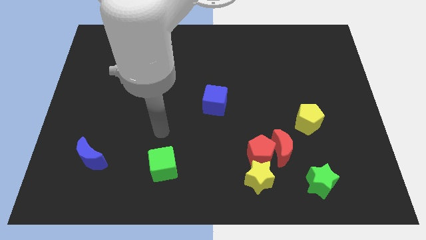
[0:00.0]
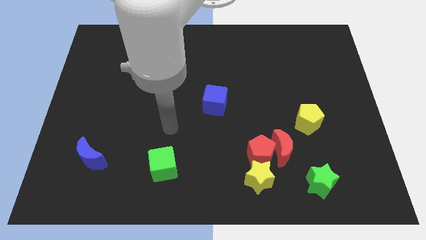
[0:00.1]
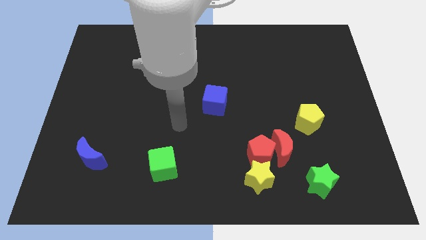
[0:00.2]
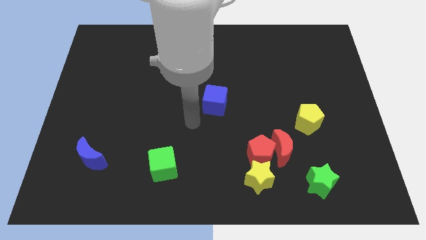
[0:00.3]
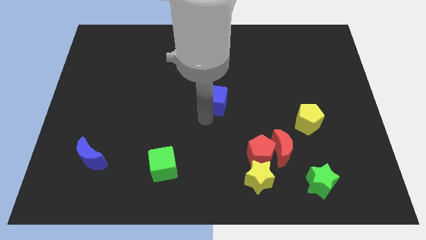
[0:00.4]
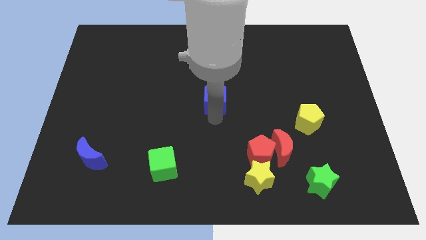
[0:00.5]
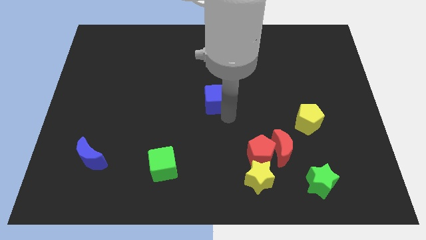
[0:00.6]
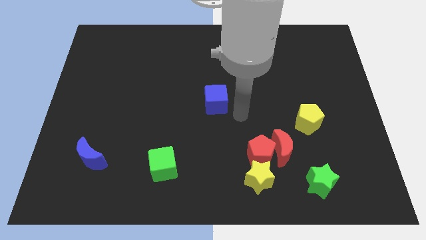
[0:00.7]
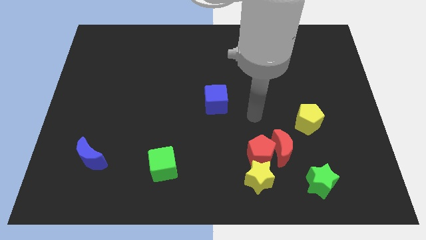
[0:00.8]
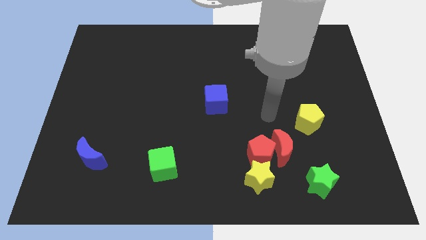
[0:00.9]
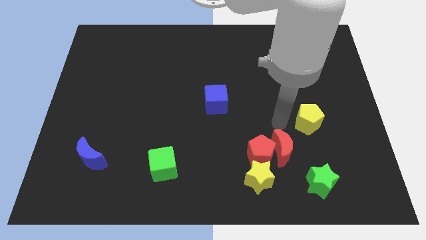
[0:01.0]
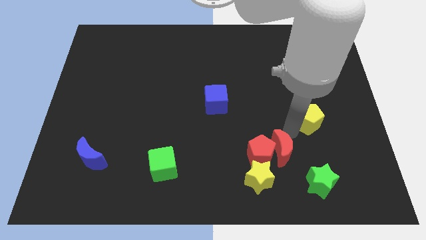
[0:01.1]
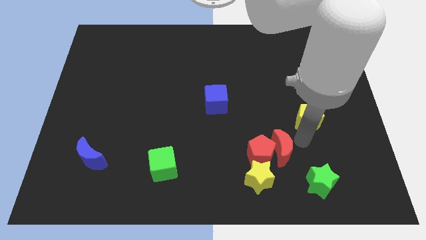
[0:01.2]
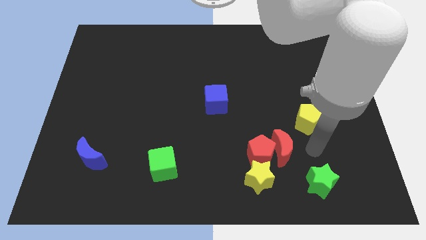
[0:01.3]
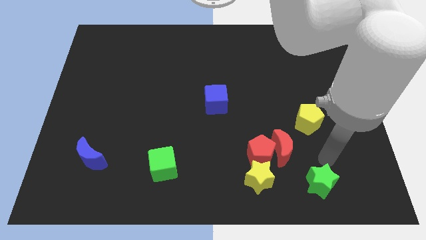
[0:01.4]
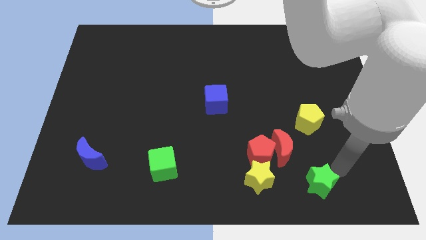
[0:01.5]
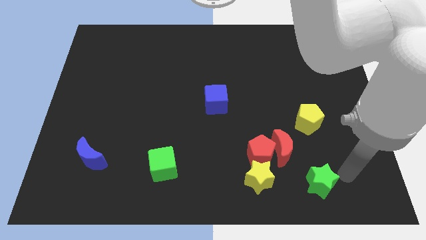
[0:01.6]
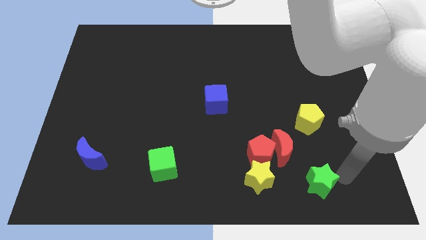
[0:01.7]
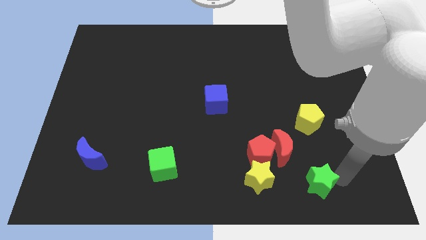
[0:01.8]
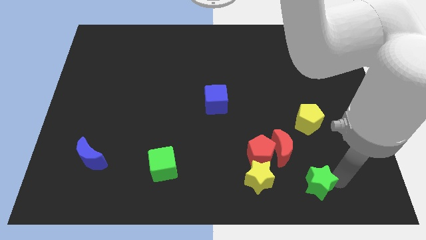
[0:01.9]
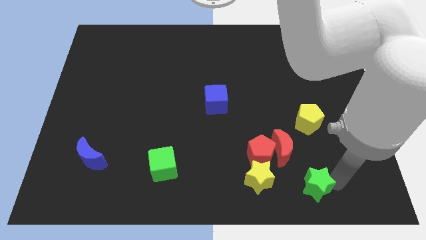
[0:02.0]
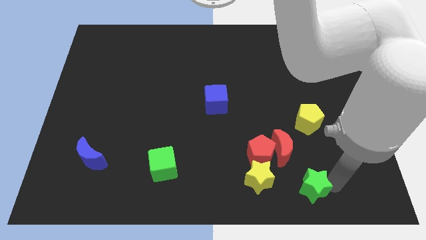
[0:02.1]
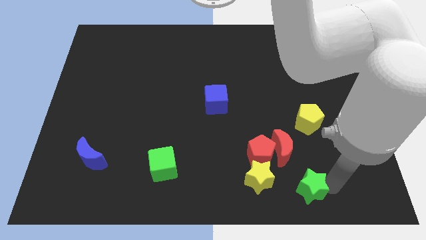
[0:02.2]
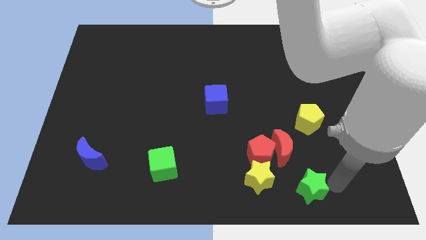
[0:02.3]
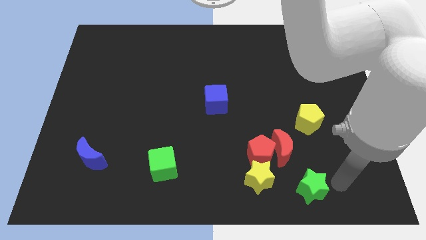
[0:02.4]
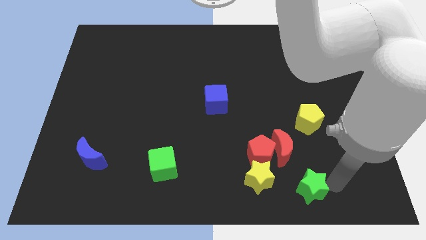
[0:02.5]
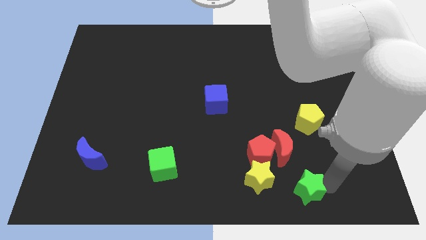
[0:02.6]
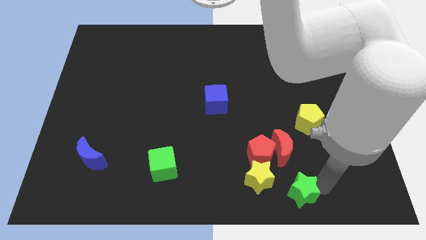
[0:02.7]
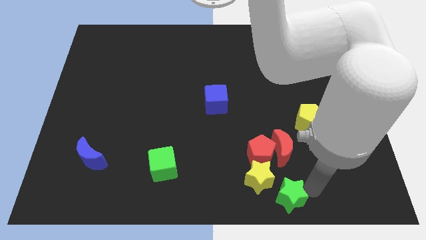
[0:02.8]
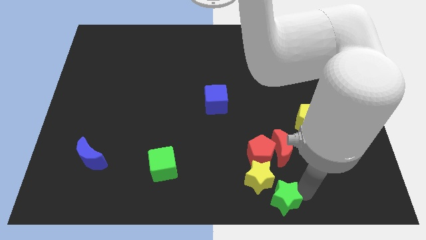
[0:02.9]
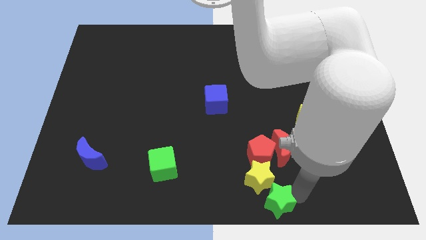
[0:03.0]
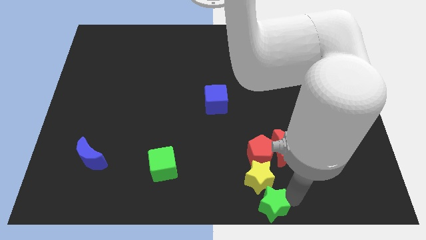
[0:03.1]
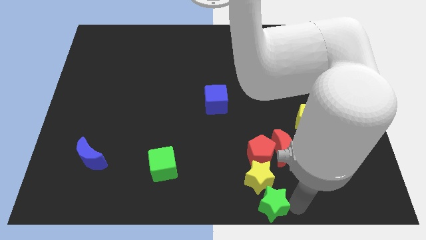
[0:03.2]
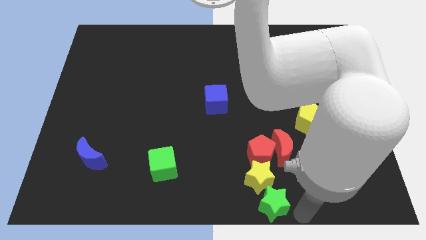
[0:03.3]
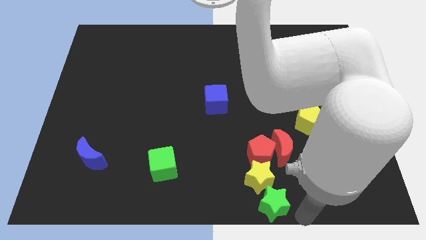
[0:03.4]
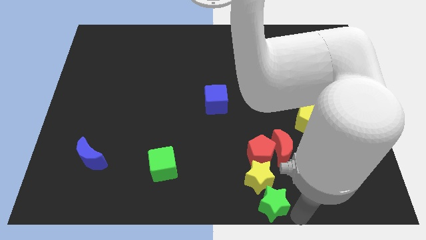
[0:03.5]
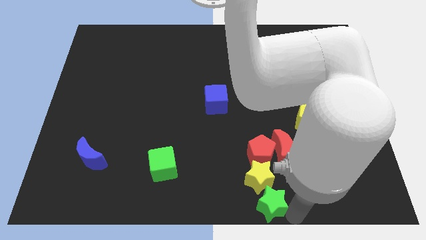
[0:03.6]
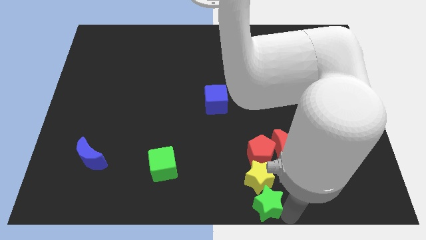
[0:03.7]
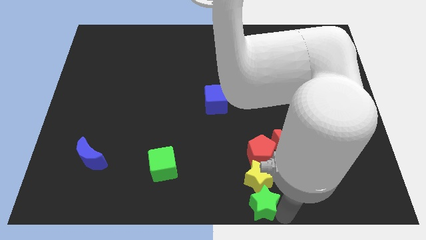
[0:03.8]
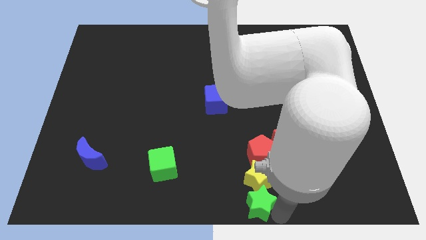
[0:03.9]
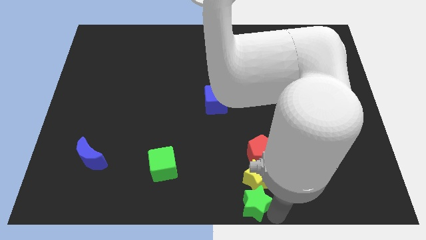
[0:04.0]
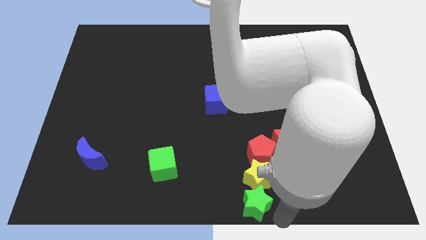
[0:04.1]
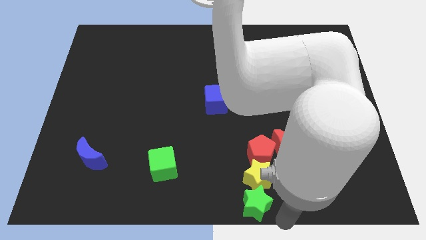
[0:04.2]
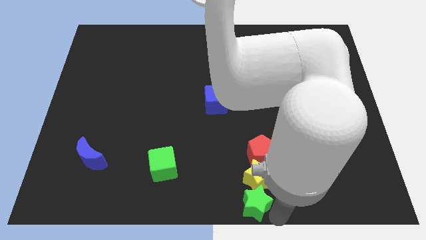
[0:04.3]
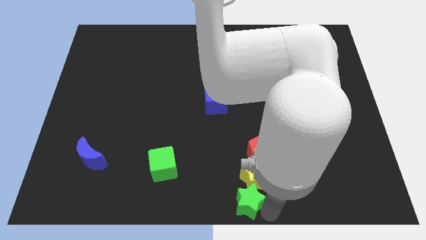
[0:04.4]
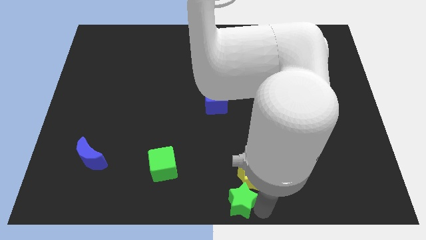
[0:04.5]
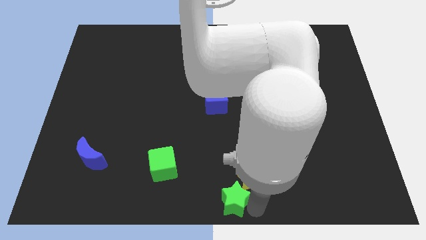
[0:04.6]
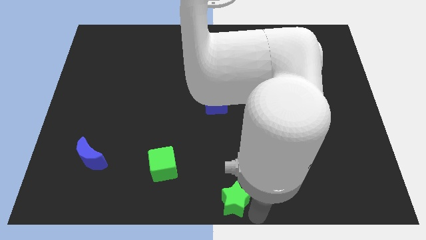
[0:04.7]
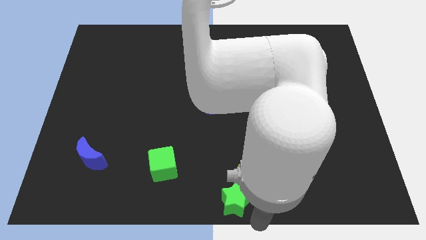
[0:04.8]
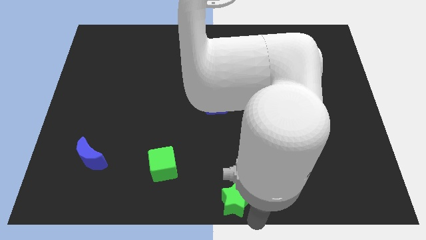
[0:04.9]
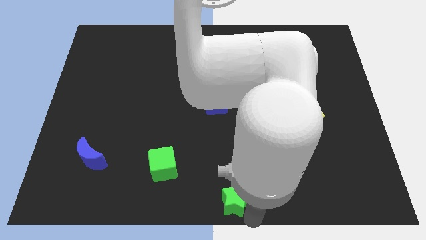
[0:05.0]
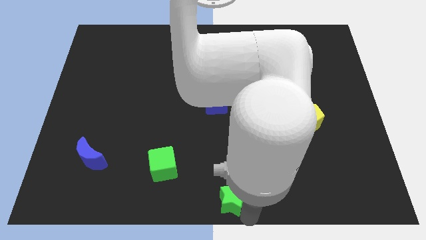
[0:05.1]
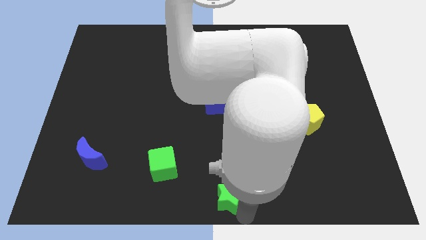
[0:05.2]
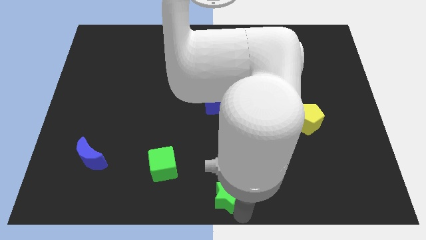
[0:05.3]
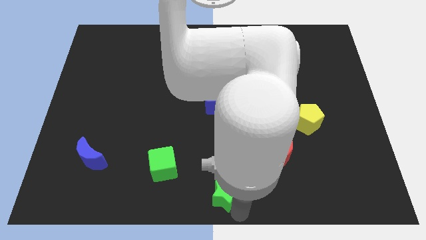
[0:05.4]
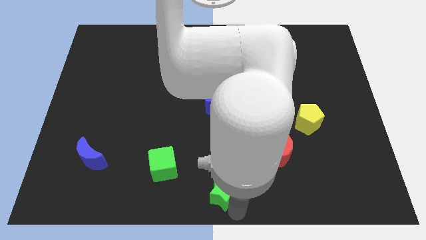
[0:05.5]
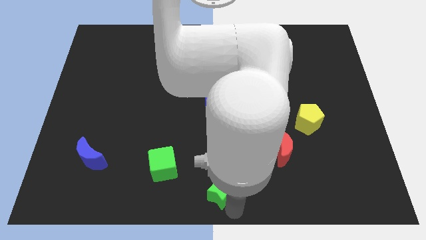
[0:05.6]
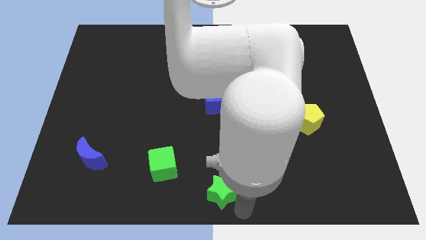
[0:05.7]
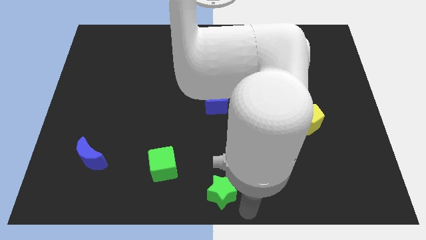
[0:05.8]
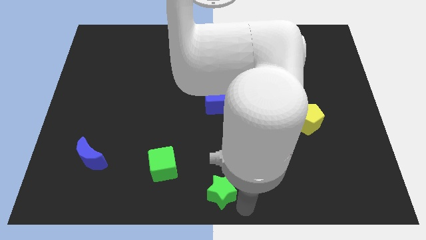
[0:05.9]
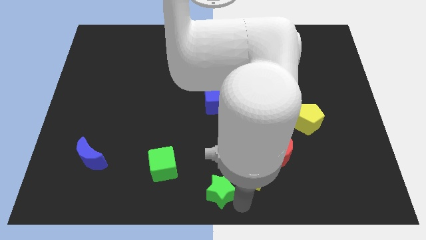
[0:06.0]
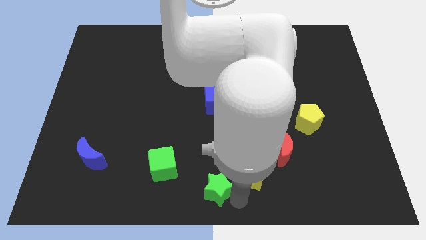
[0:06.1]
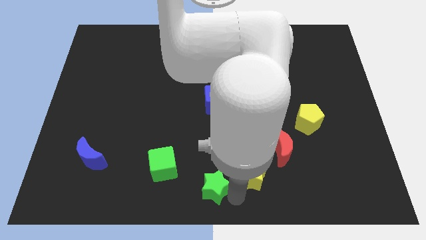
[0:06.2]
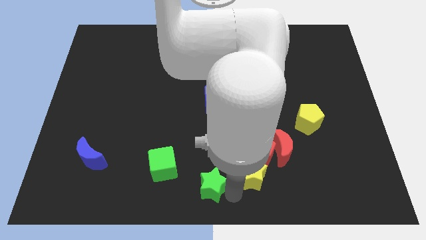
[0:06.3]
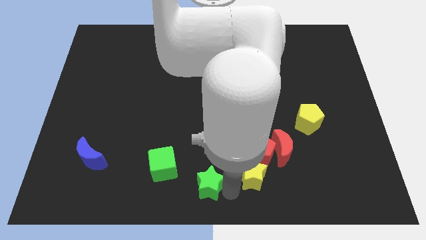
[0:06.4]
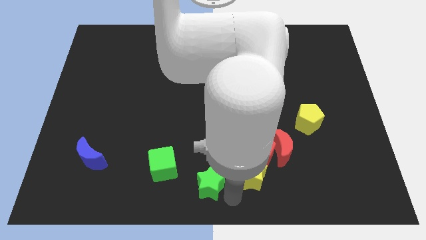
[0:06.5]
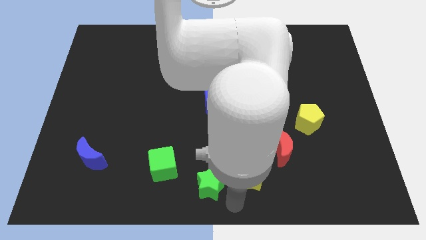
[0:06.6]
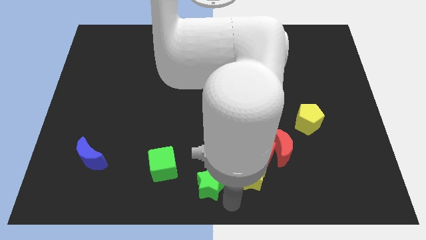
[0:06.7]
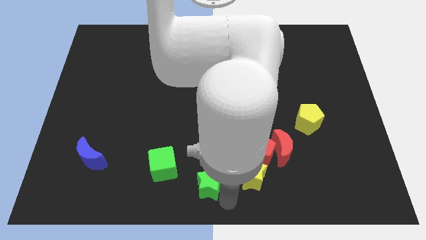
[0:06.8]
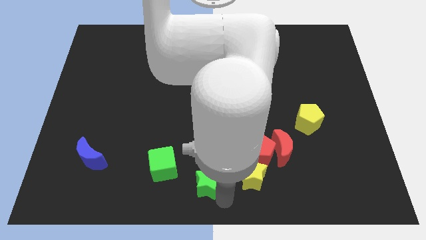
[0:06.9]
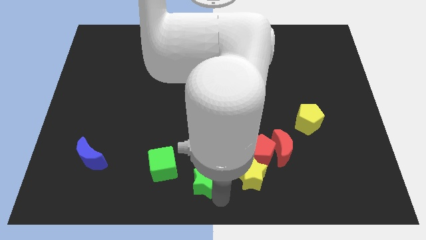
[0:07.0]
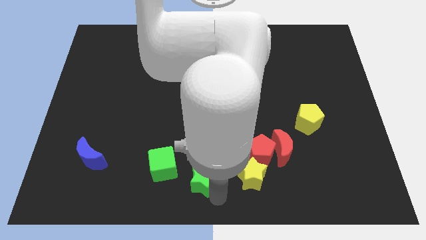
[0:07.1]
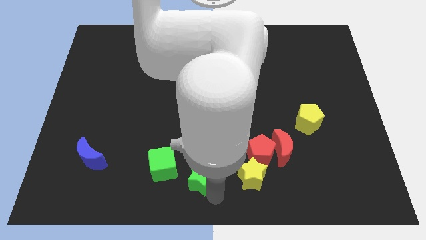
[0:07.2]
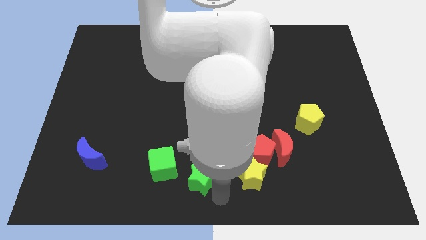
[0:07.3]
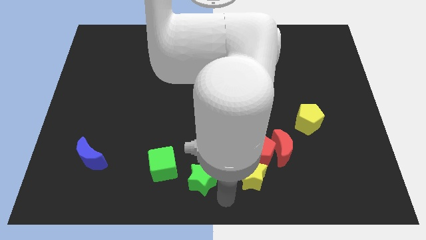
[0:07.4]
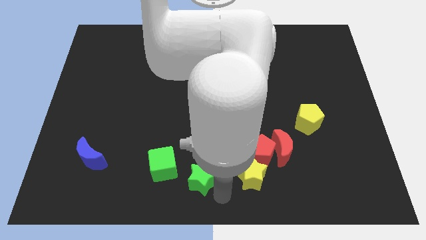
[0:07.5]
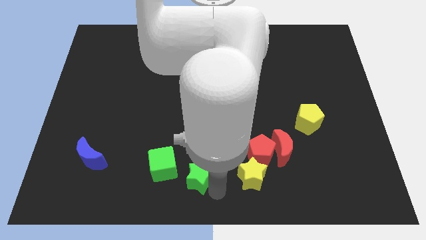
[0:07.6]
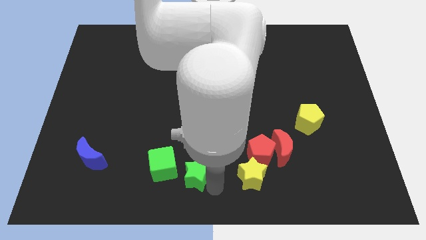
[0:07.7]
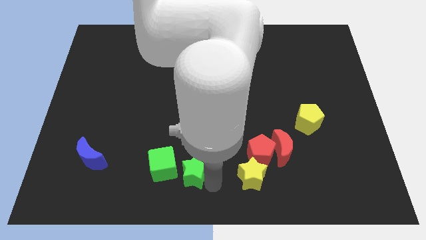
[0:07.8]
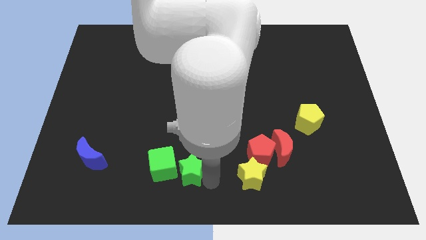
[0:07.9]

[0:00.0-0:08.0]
put the green star close to the green cube
